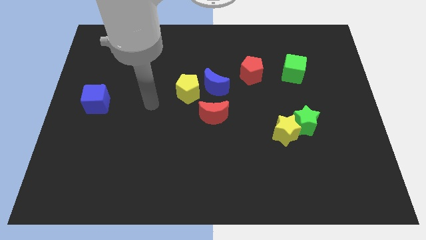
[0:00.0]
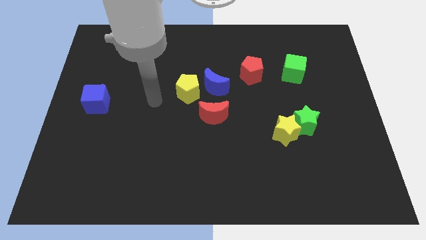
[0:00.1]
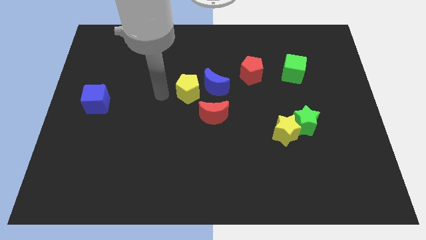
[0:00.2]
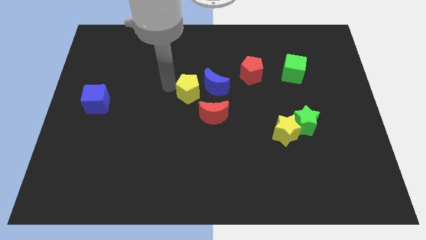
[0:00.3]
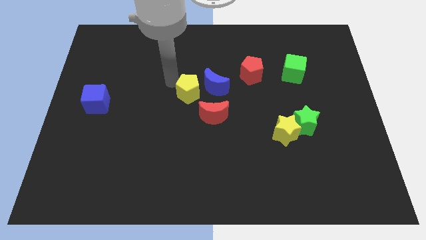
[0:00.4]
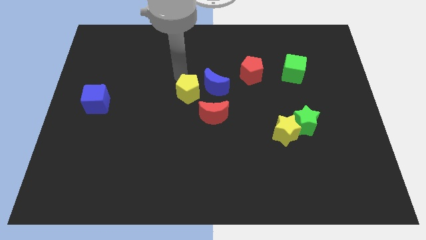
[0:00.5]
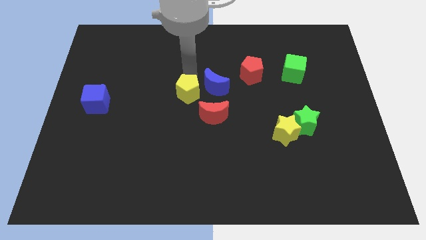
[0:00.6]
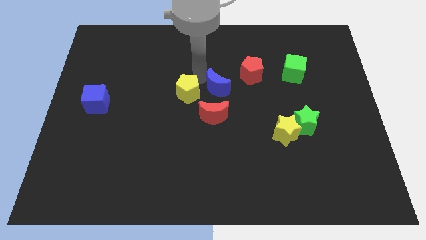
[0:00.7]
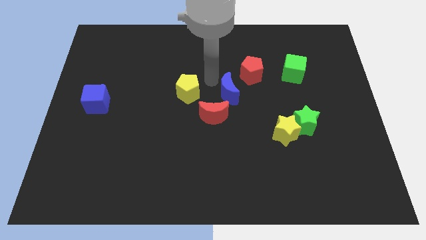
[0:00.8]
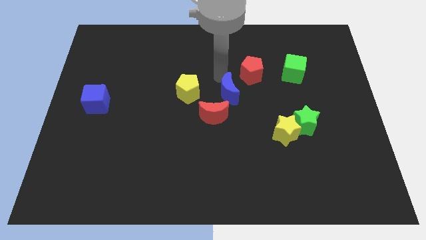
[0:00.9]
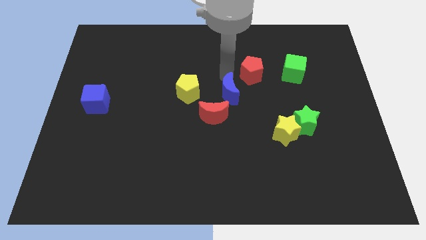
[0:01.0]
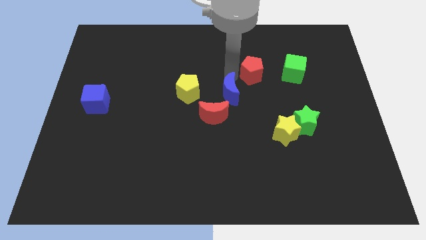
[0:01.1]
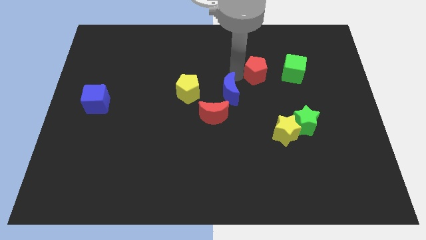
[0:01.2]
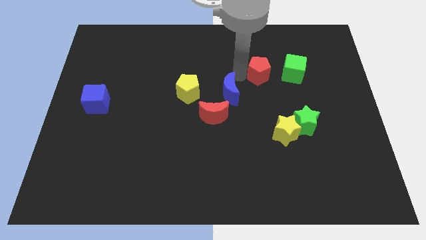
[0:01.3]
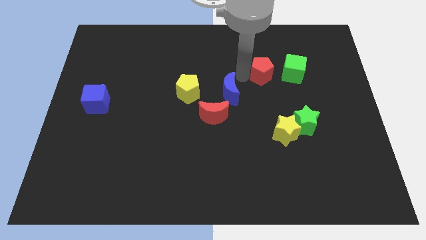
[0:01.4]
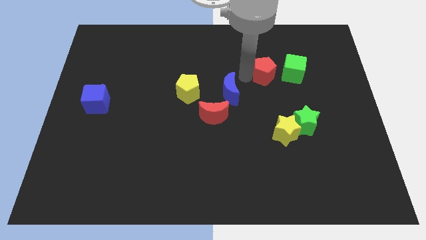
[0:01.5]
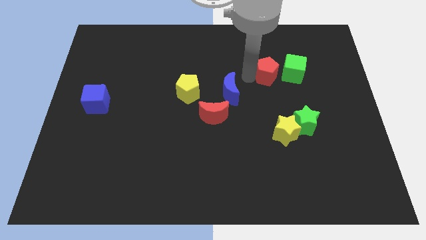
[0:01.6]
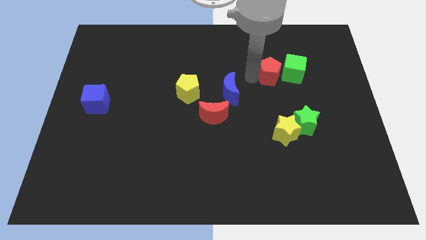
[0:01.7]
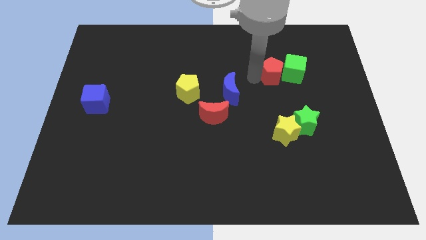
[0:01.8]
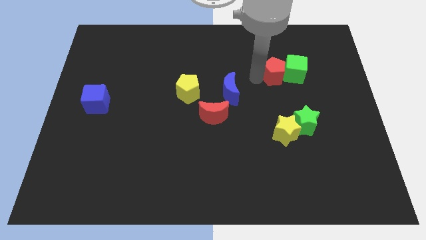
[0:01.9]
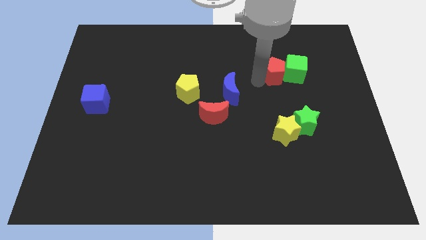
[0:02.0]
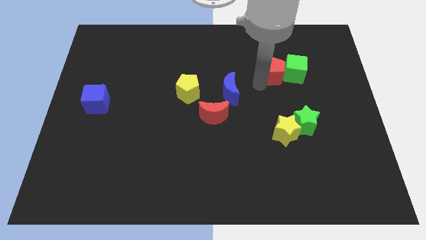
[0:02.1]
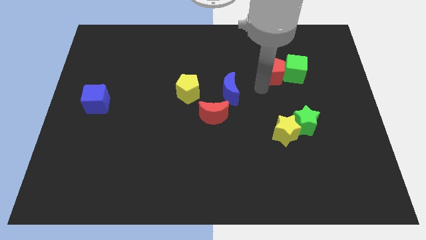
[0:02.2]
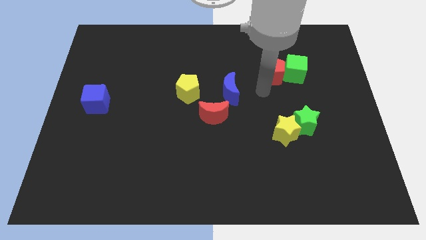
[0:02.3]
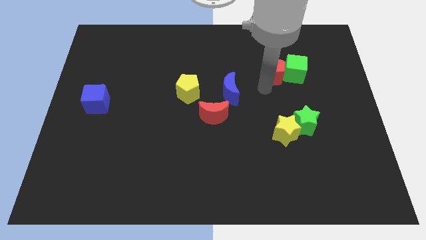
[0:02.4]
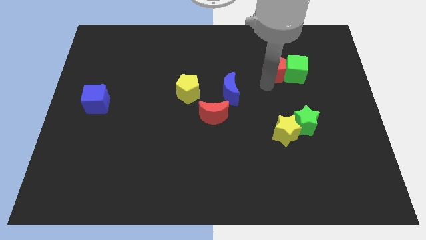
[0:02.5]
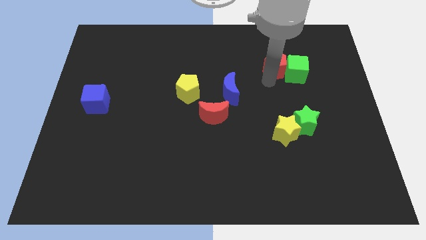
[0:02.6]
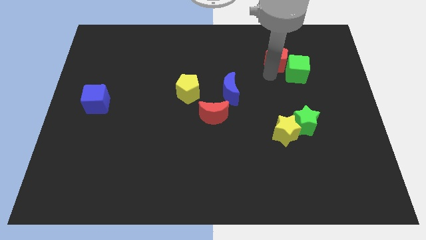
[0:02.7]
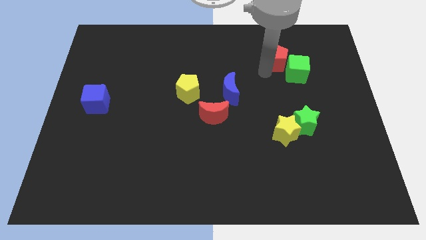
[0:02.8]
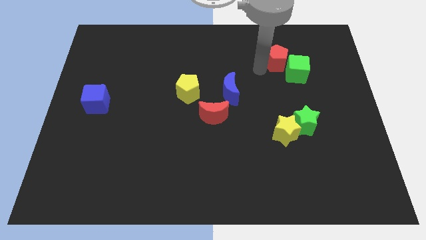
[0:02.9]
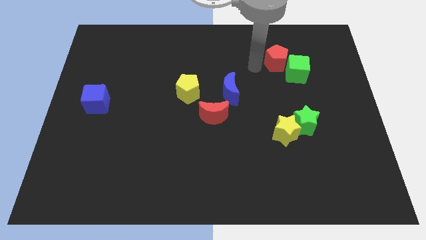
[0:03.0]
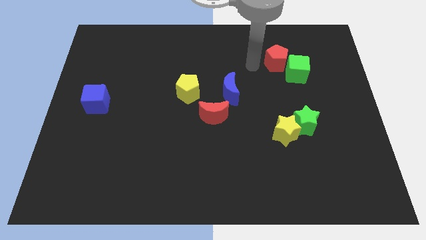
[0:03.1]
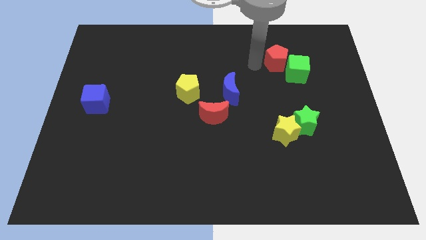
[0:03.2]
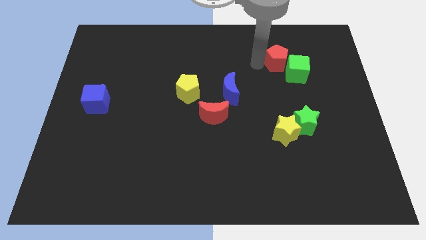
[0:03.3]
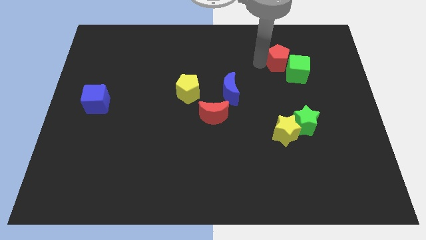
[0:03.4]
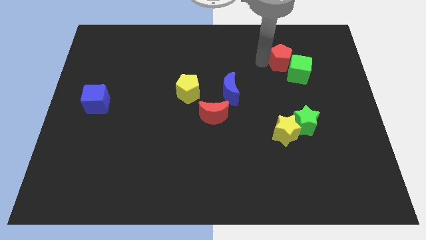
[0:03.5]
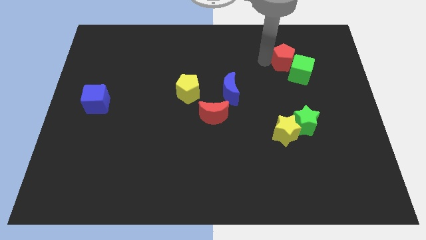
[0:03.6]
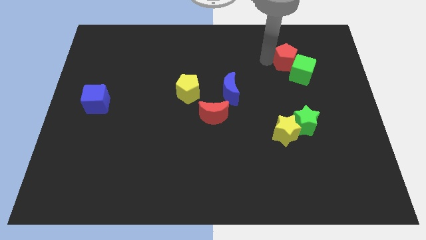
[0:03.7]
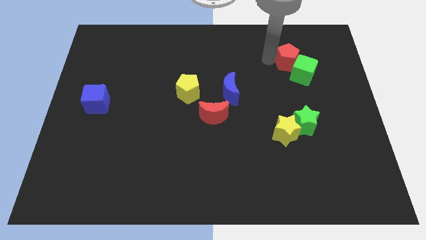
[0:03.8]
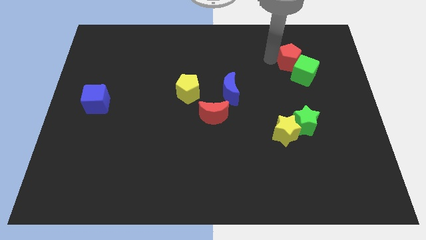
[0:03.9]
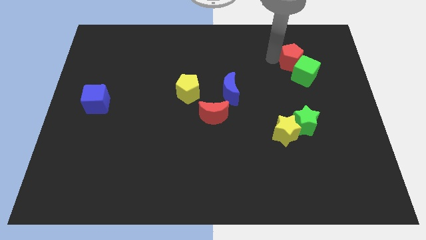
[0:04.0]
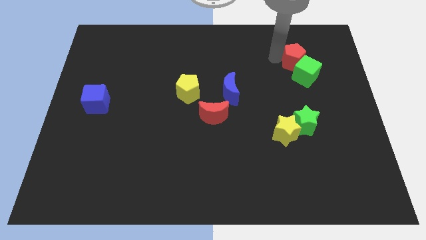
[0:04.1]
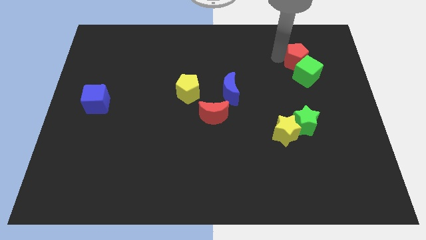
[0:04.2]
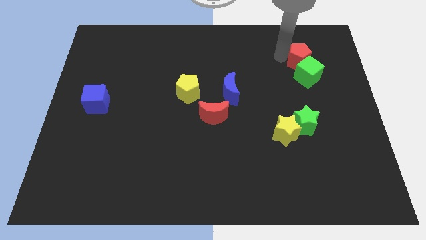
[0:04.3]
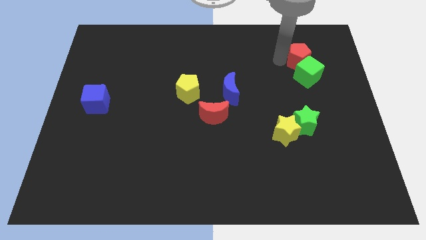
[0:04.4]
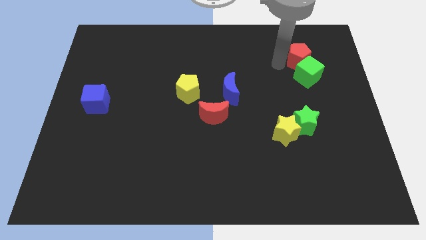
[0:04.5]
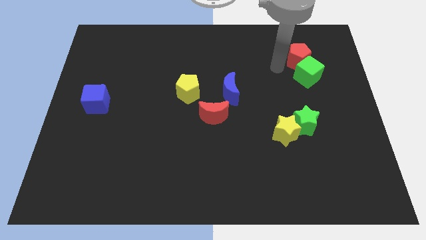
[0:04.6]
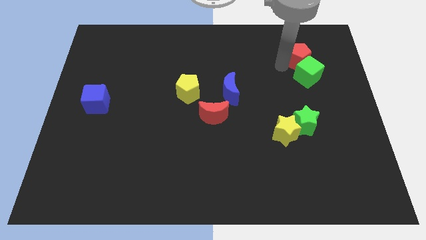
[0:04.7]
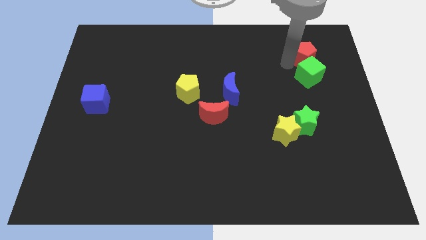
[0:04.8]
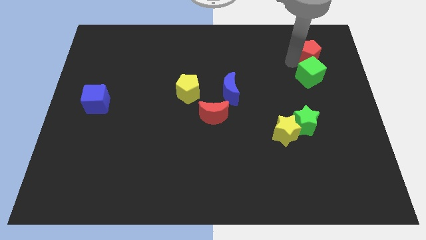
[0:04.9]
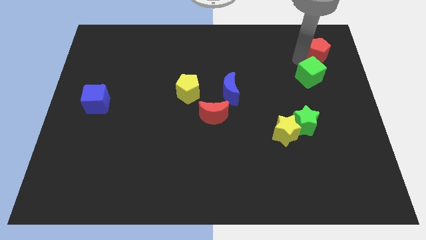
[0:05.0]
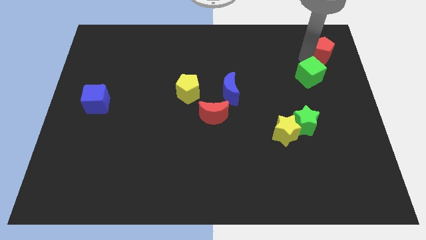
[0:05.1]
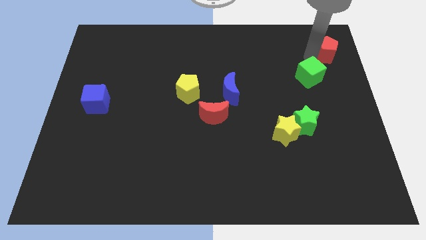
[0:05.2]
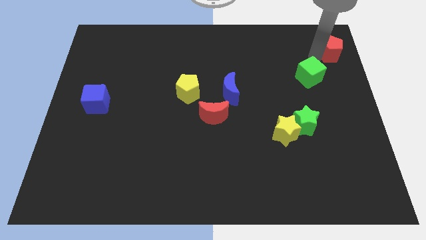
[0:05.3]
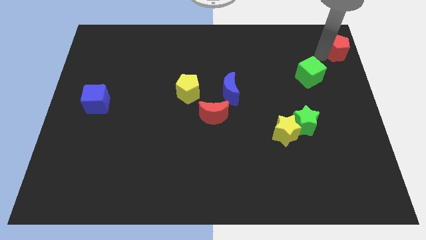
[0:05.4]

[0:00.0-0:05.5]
slide the red pentagon to the upper right corner

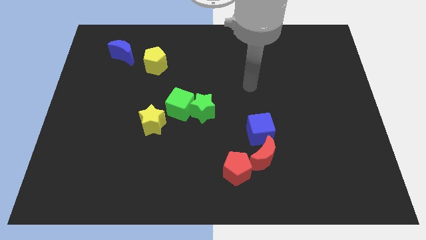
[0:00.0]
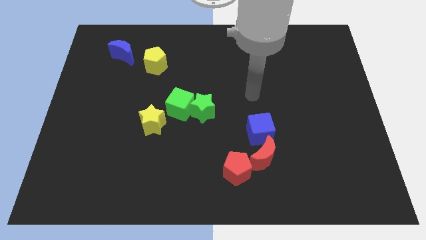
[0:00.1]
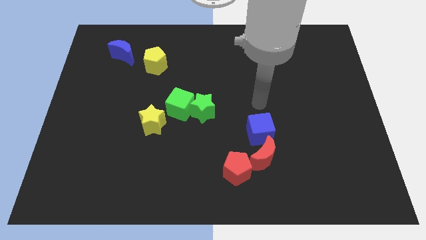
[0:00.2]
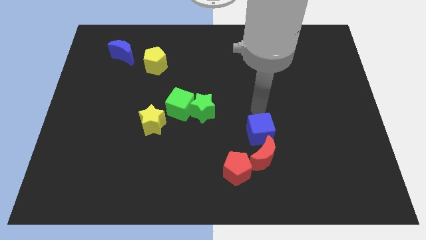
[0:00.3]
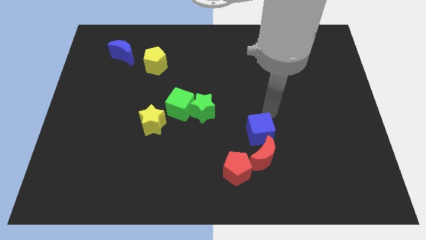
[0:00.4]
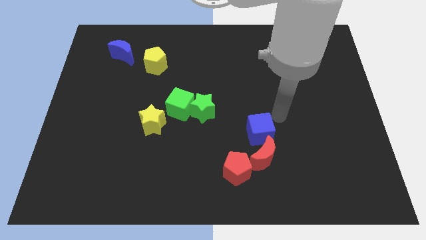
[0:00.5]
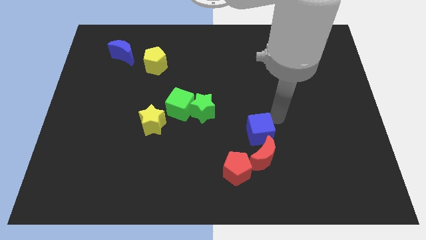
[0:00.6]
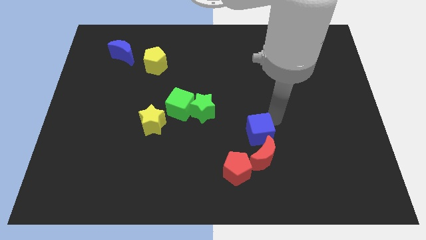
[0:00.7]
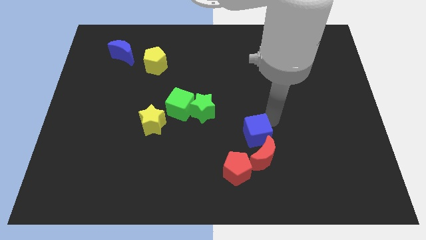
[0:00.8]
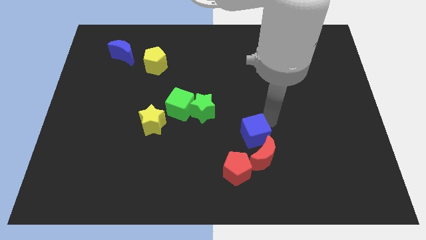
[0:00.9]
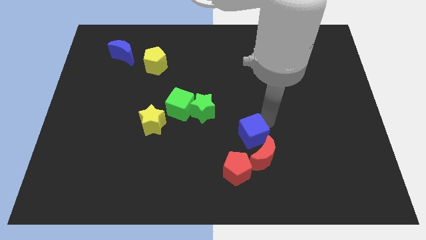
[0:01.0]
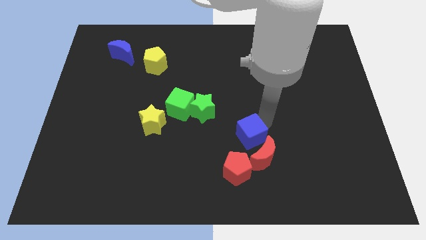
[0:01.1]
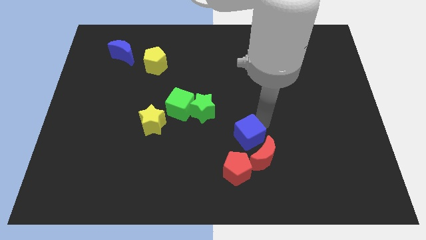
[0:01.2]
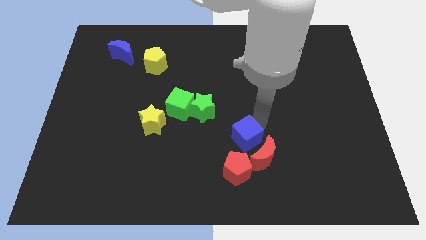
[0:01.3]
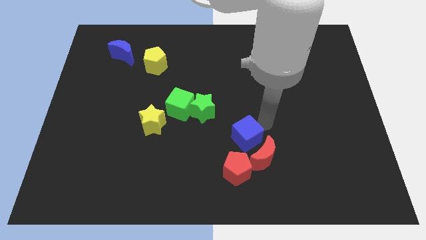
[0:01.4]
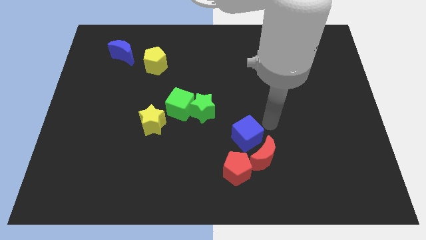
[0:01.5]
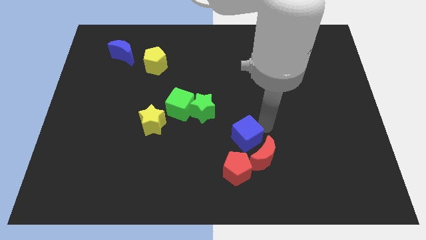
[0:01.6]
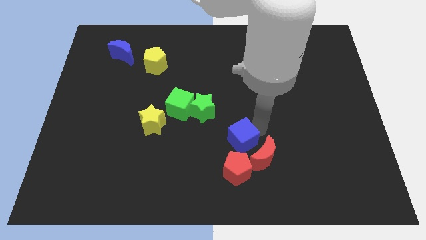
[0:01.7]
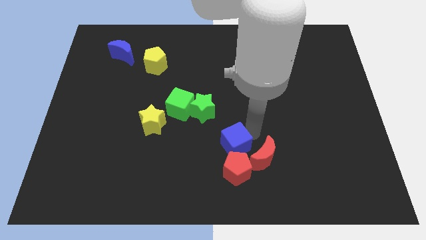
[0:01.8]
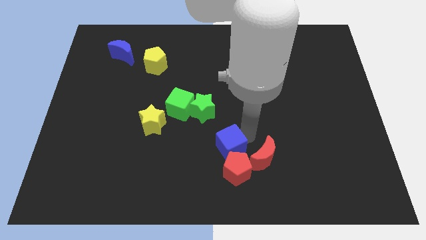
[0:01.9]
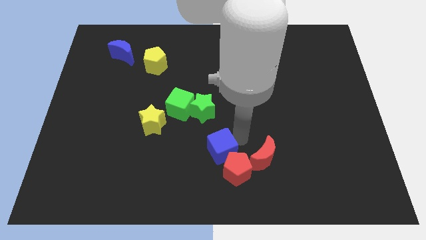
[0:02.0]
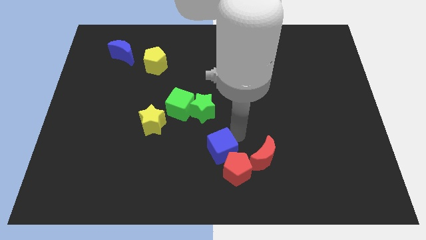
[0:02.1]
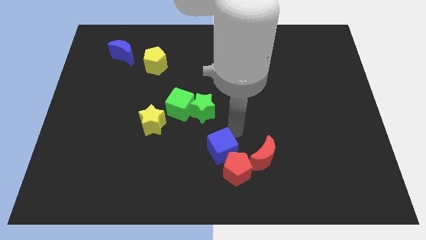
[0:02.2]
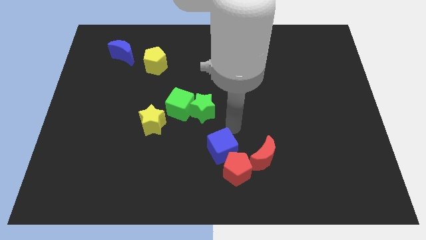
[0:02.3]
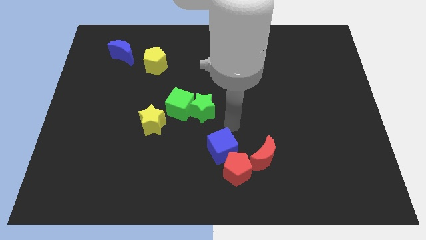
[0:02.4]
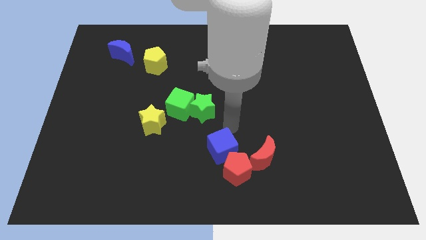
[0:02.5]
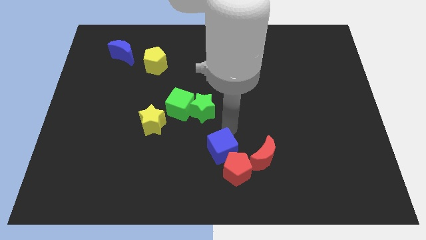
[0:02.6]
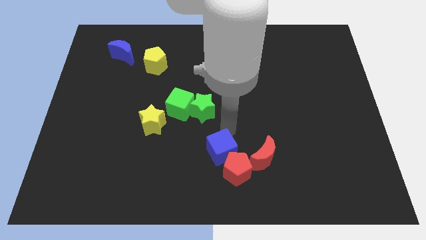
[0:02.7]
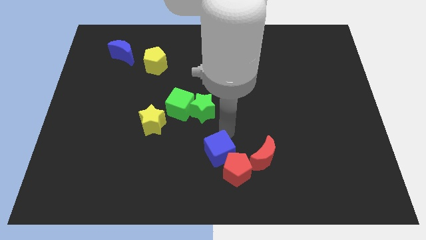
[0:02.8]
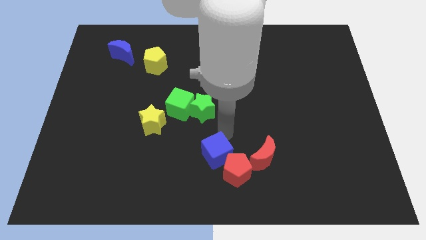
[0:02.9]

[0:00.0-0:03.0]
move the blue cube to the bottom side
